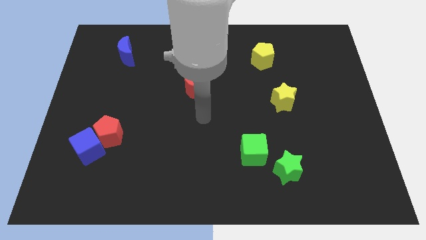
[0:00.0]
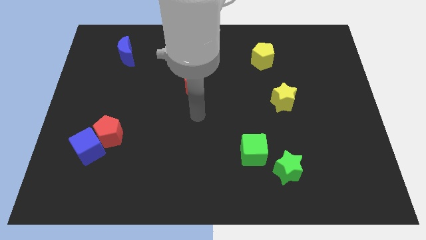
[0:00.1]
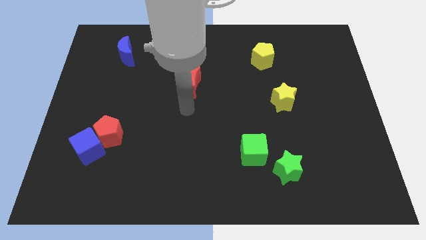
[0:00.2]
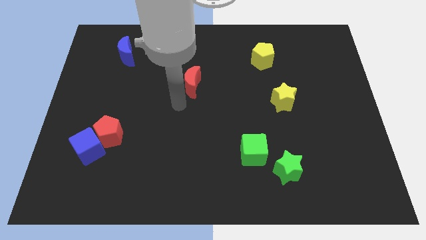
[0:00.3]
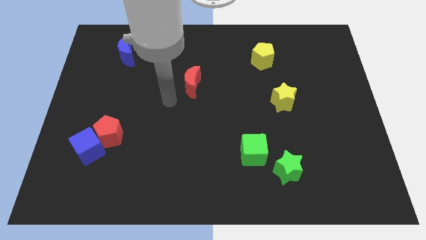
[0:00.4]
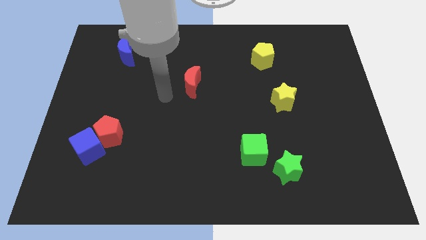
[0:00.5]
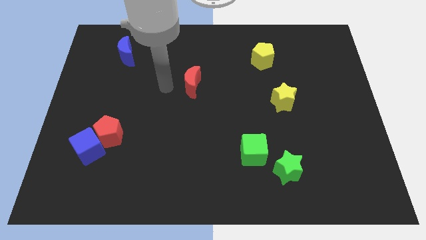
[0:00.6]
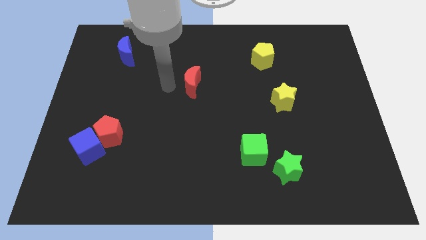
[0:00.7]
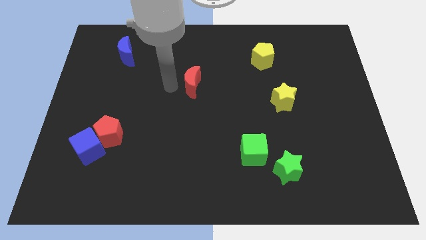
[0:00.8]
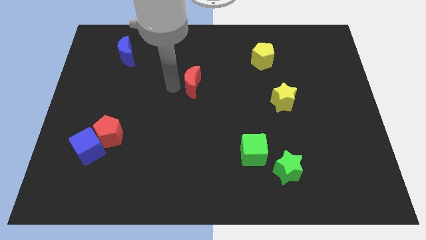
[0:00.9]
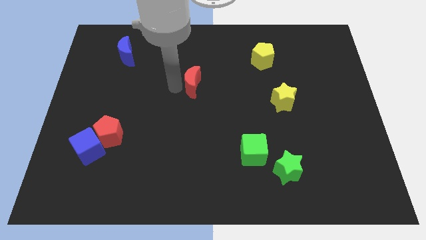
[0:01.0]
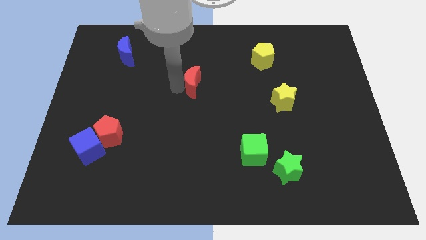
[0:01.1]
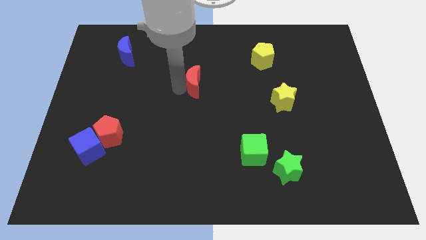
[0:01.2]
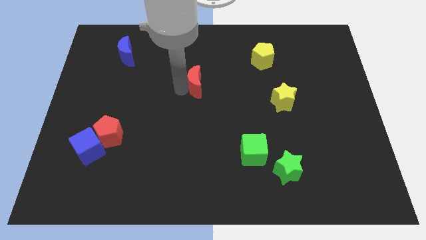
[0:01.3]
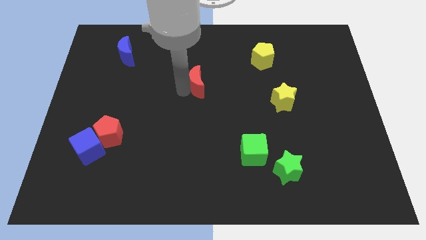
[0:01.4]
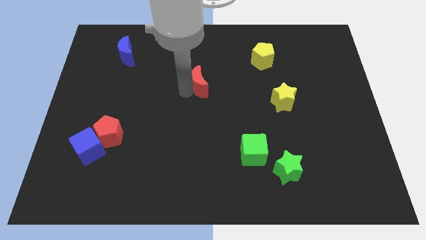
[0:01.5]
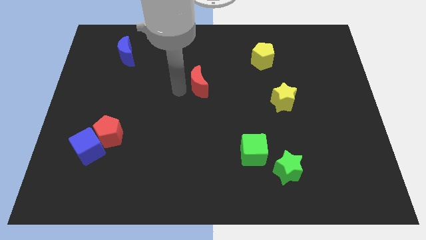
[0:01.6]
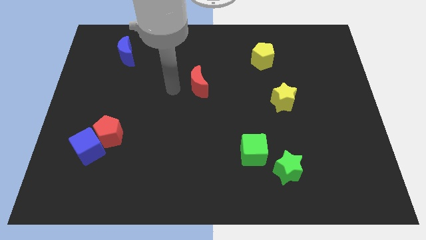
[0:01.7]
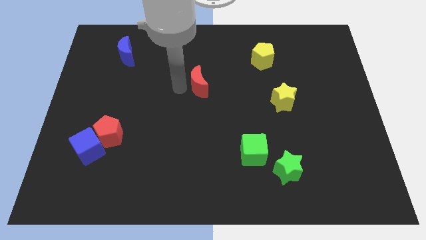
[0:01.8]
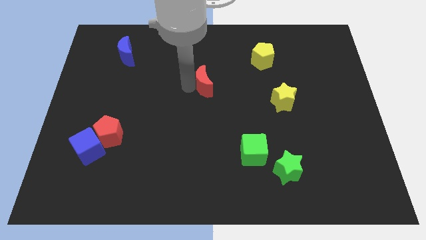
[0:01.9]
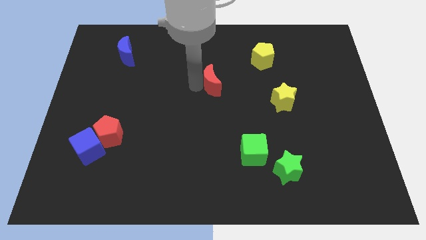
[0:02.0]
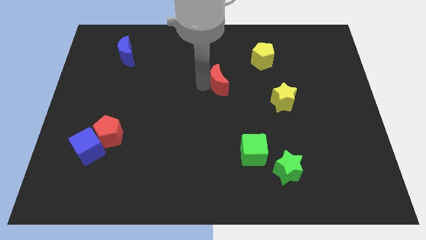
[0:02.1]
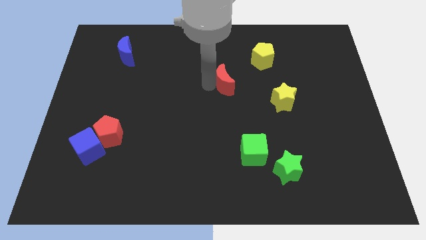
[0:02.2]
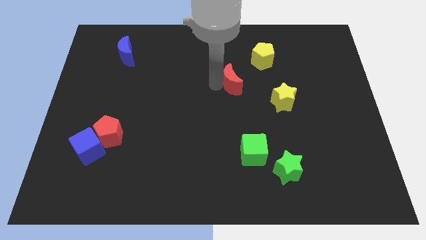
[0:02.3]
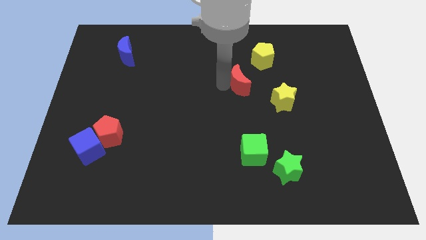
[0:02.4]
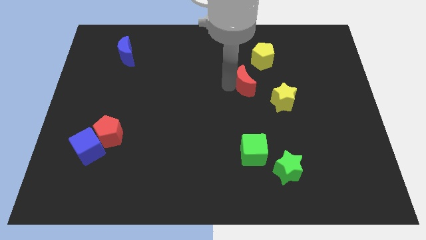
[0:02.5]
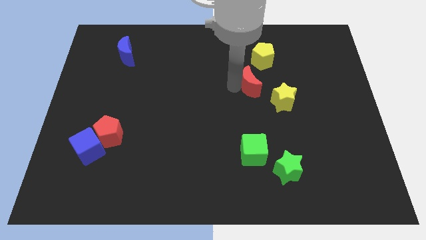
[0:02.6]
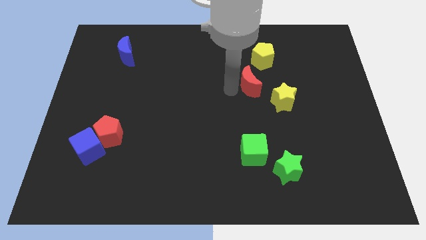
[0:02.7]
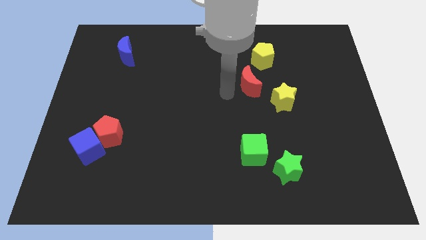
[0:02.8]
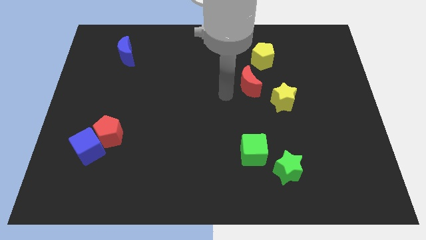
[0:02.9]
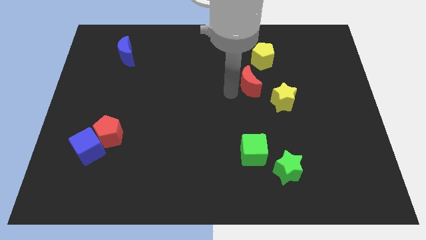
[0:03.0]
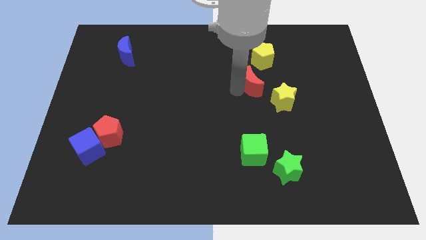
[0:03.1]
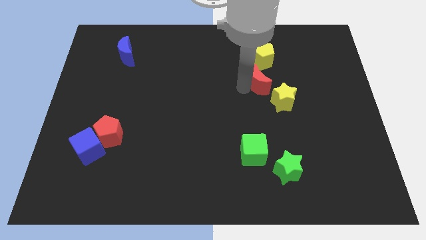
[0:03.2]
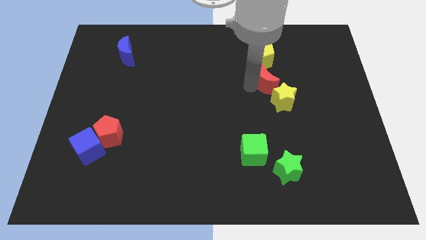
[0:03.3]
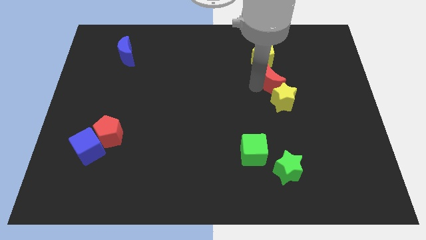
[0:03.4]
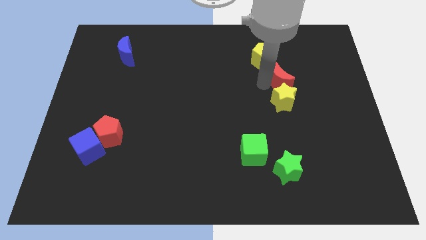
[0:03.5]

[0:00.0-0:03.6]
push the red moon right

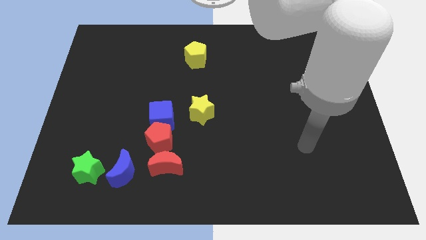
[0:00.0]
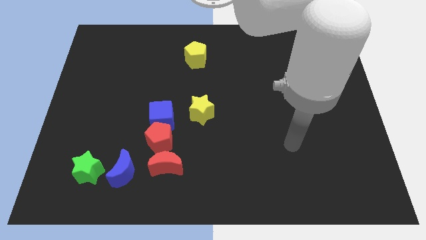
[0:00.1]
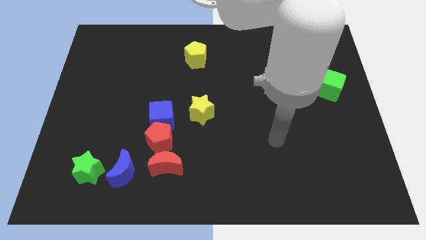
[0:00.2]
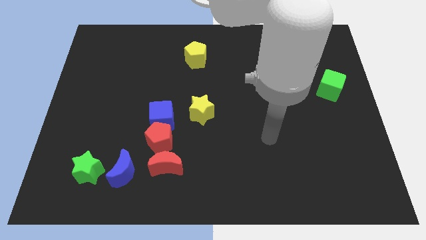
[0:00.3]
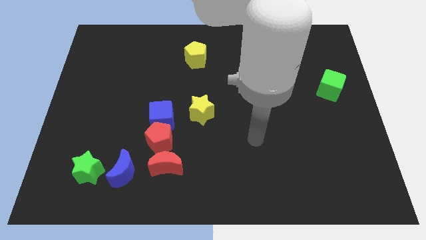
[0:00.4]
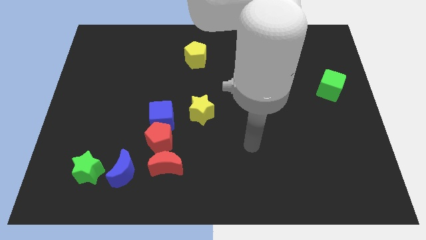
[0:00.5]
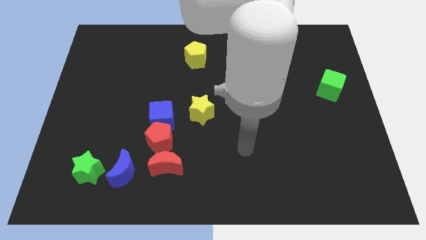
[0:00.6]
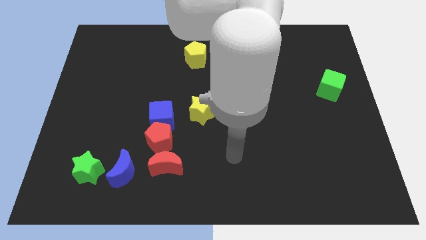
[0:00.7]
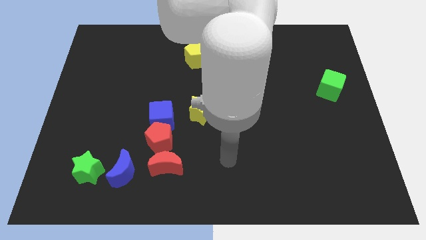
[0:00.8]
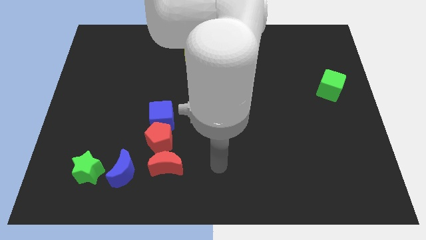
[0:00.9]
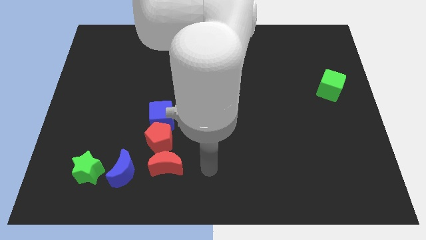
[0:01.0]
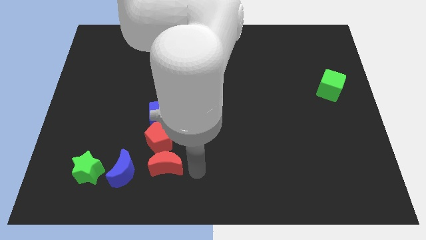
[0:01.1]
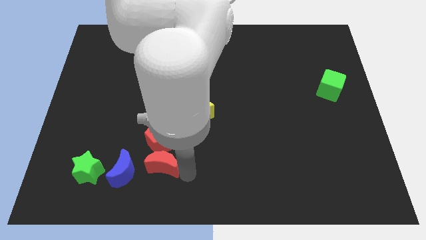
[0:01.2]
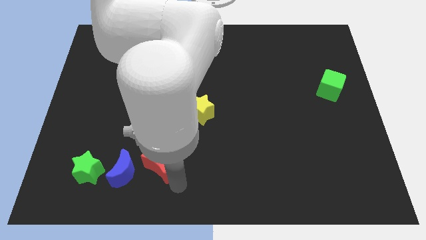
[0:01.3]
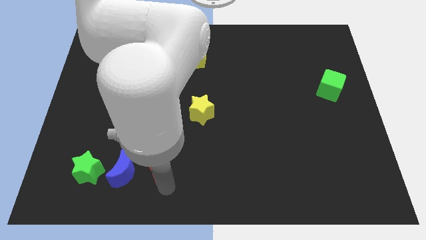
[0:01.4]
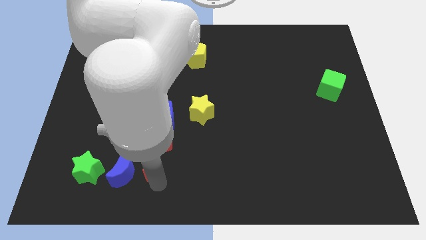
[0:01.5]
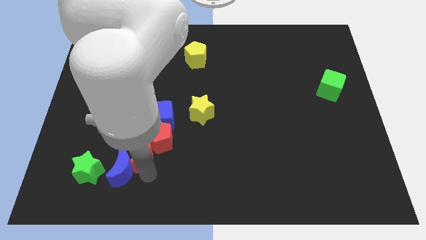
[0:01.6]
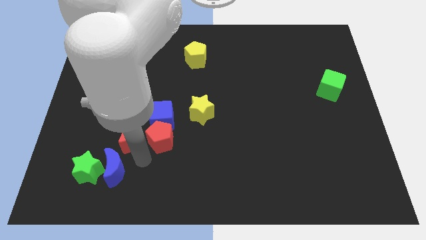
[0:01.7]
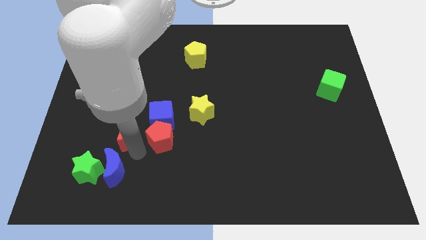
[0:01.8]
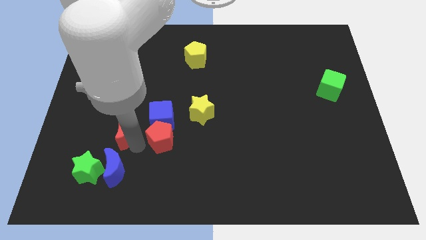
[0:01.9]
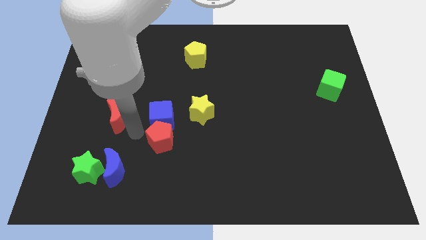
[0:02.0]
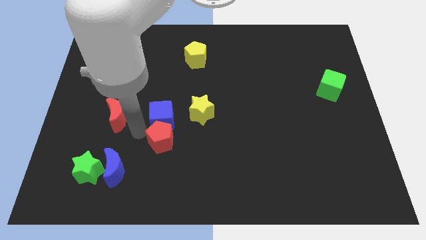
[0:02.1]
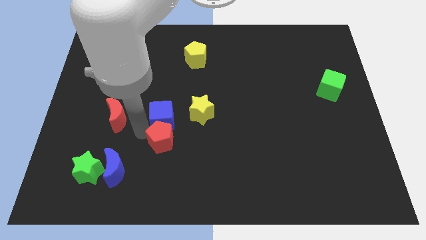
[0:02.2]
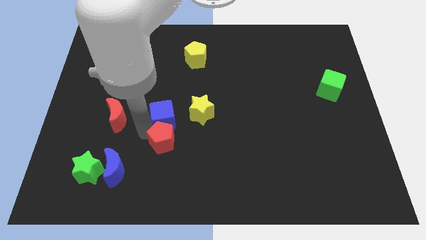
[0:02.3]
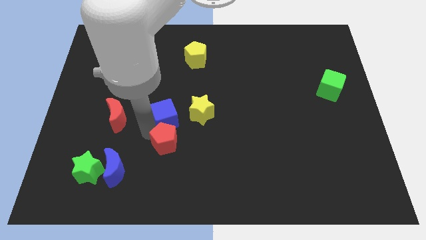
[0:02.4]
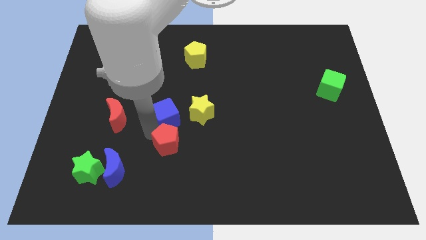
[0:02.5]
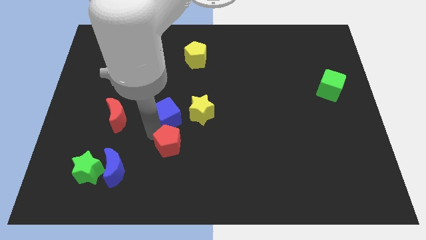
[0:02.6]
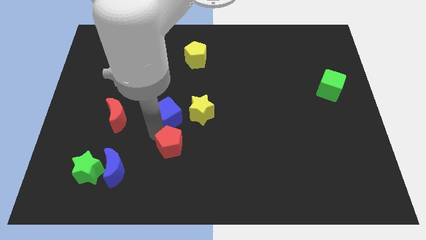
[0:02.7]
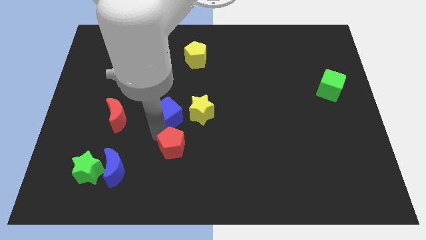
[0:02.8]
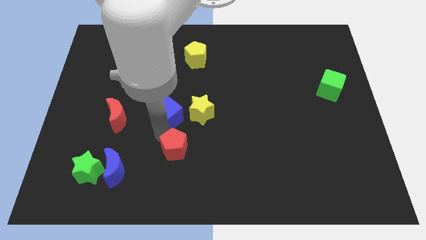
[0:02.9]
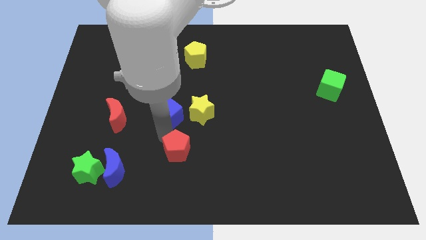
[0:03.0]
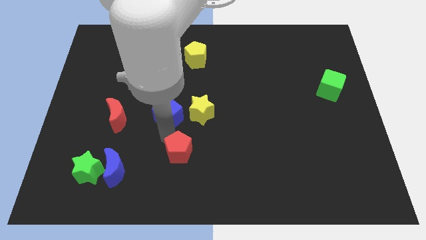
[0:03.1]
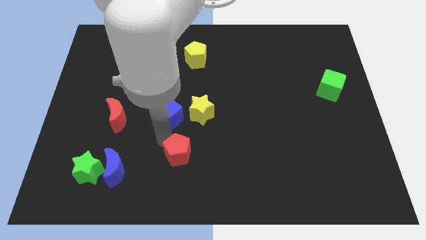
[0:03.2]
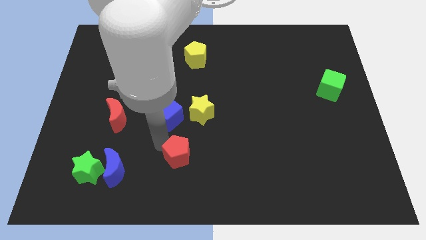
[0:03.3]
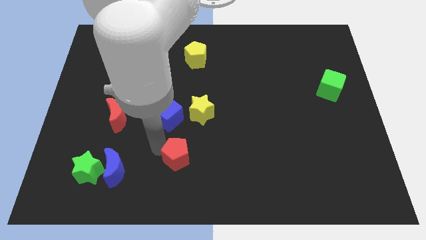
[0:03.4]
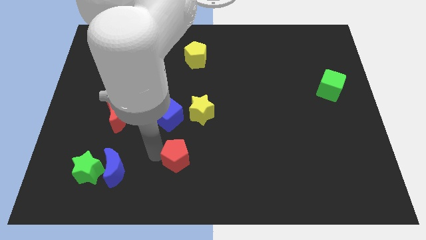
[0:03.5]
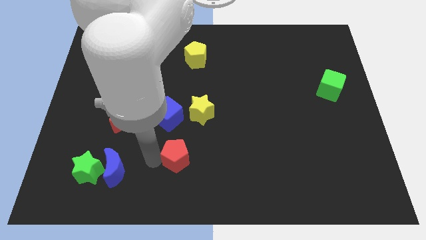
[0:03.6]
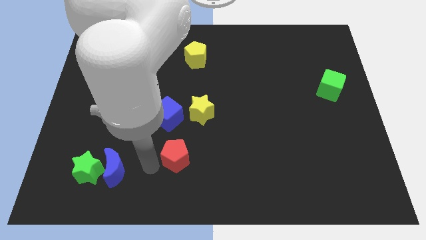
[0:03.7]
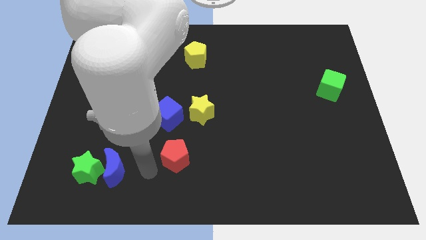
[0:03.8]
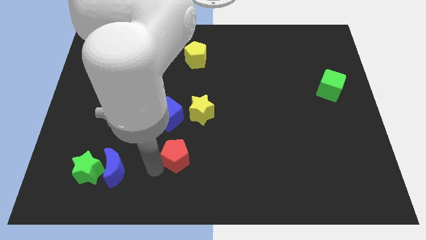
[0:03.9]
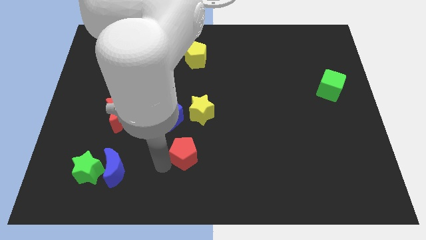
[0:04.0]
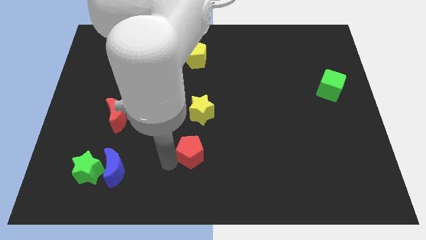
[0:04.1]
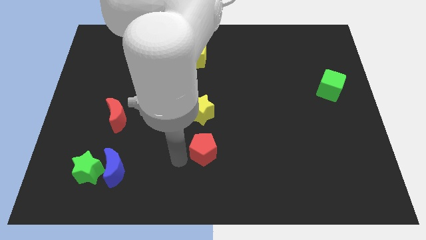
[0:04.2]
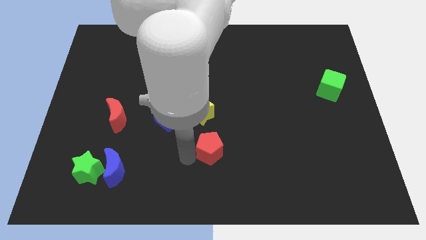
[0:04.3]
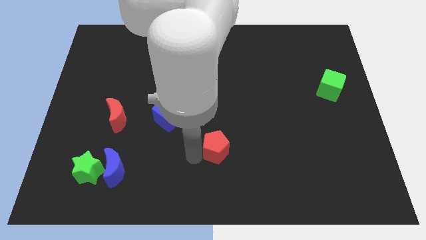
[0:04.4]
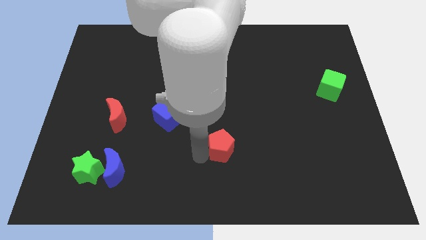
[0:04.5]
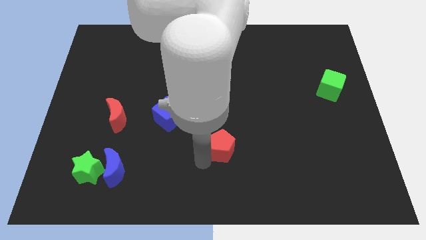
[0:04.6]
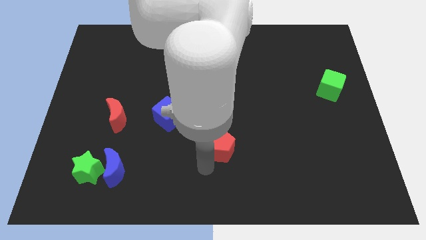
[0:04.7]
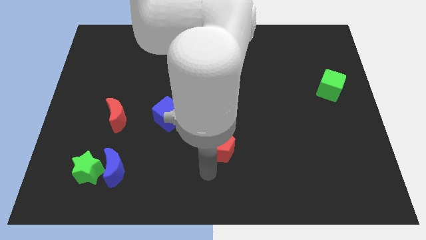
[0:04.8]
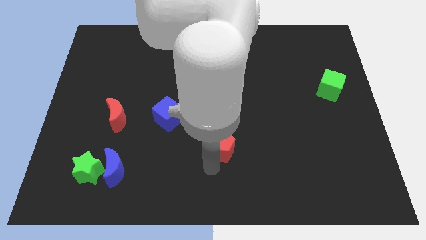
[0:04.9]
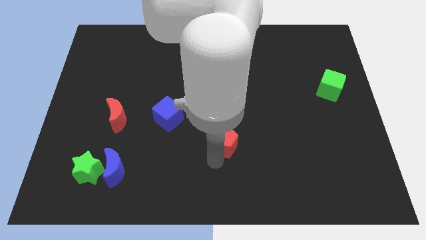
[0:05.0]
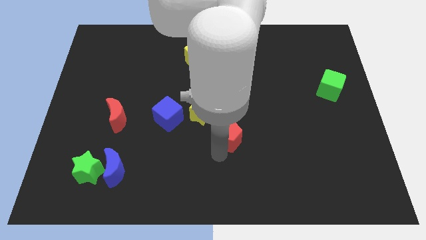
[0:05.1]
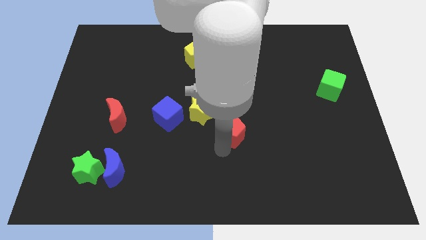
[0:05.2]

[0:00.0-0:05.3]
slightly slide the red pentagon up and right
